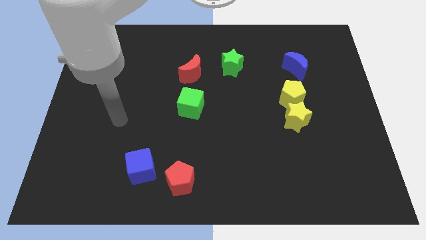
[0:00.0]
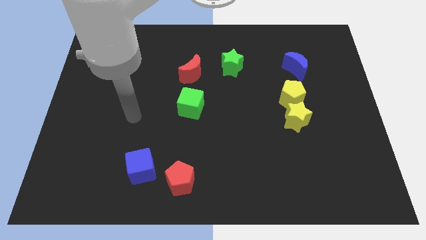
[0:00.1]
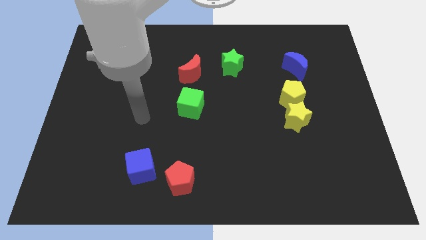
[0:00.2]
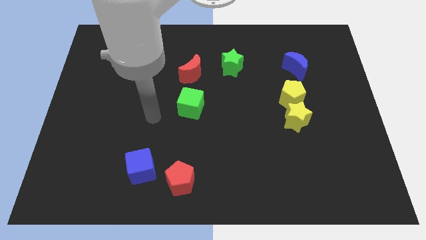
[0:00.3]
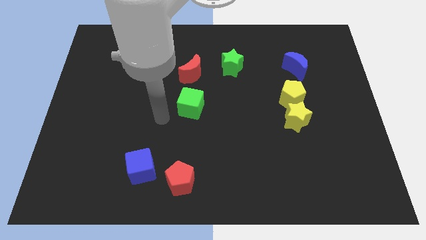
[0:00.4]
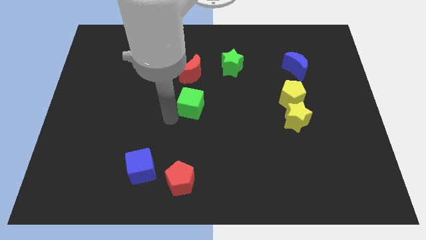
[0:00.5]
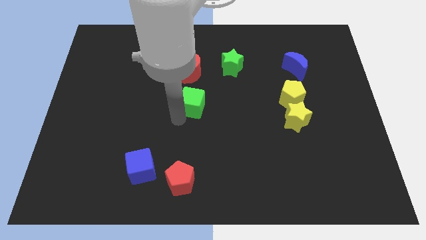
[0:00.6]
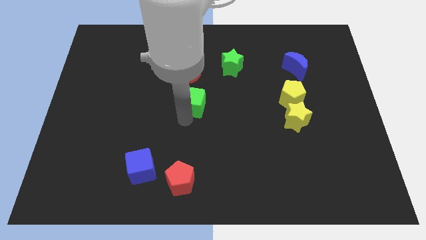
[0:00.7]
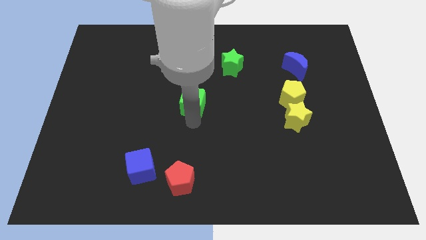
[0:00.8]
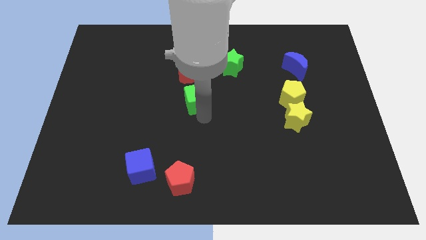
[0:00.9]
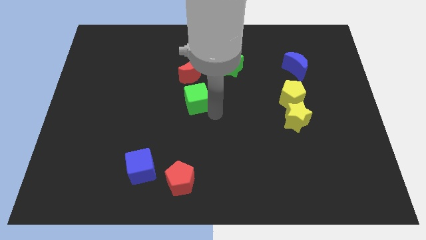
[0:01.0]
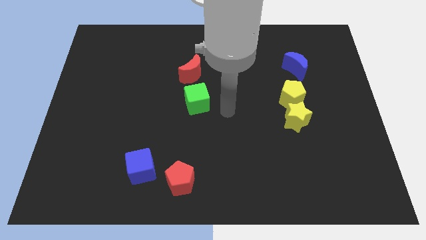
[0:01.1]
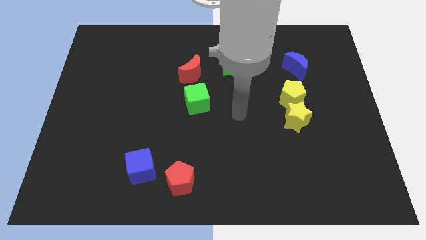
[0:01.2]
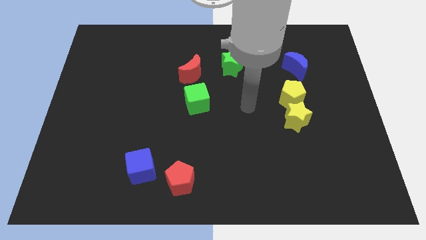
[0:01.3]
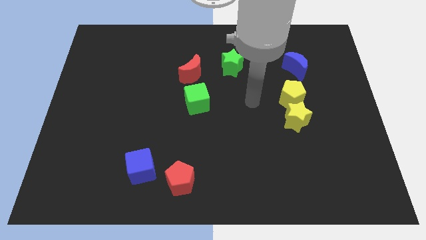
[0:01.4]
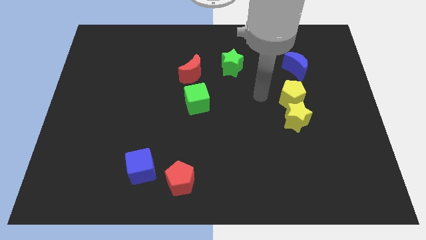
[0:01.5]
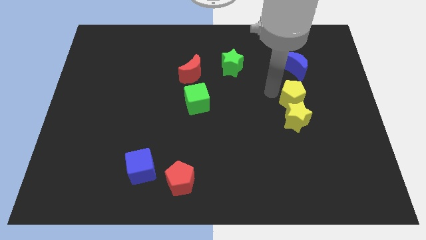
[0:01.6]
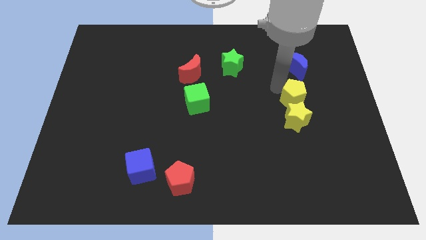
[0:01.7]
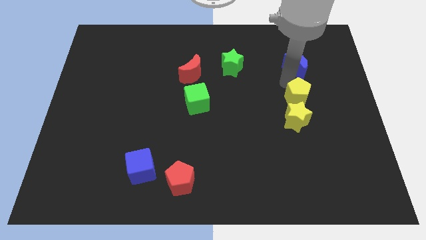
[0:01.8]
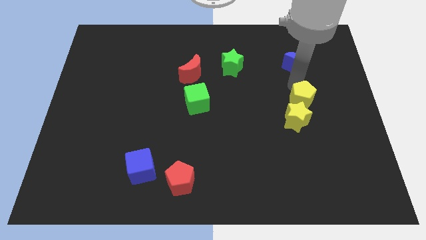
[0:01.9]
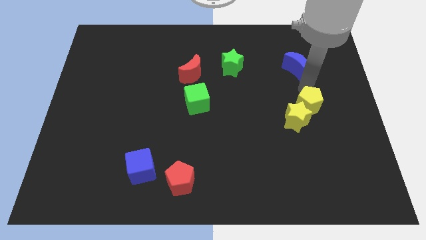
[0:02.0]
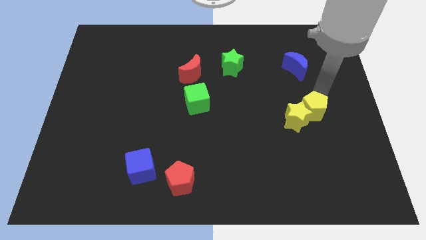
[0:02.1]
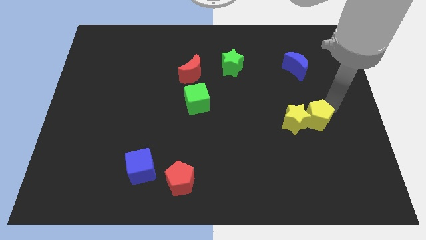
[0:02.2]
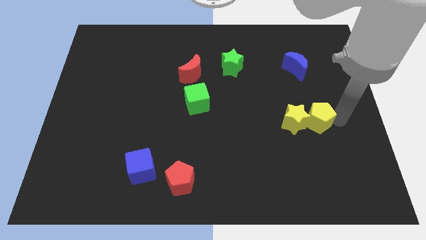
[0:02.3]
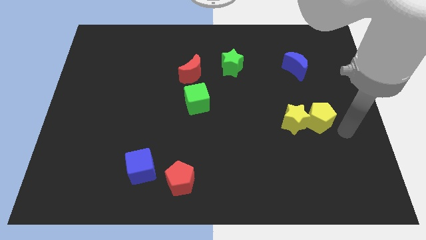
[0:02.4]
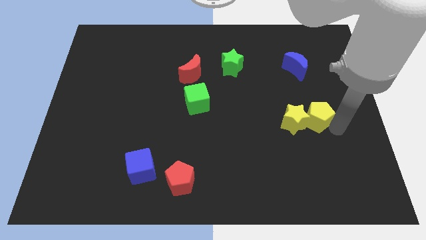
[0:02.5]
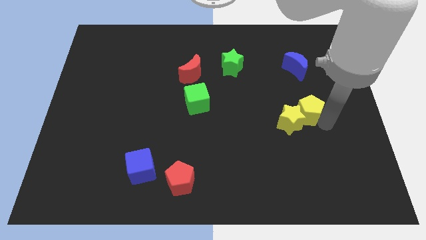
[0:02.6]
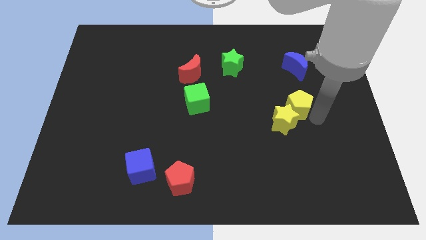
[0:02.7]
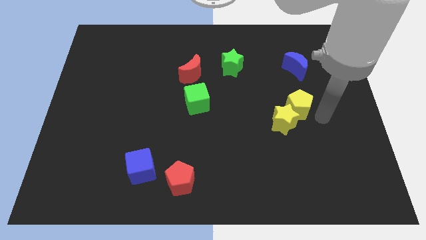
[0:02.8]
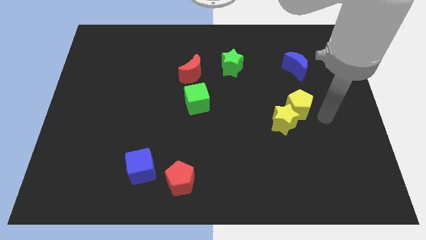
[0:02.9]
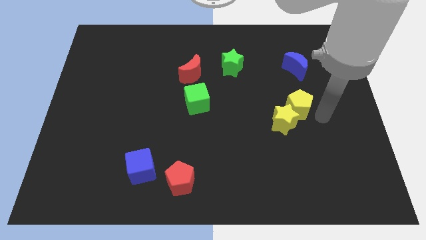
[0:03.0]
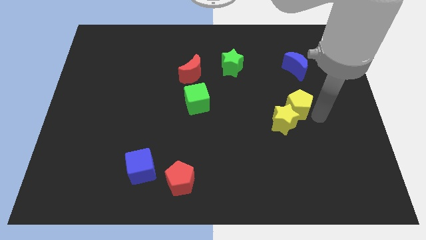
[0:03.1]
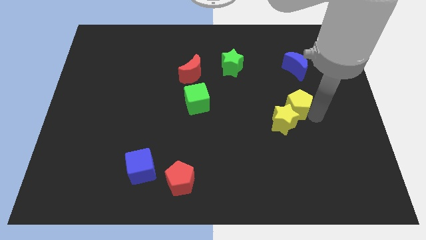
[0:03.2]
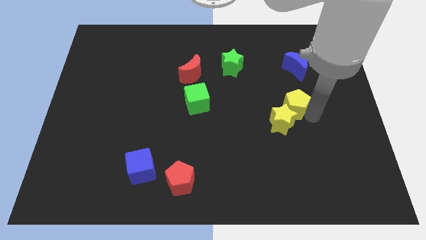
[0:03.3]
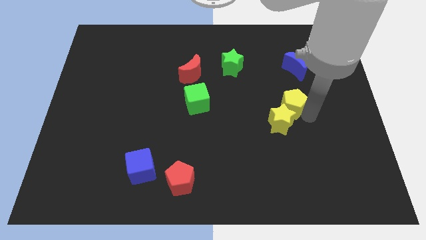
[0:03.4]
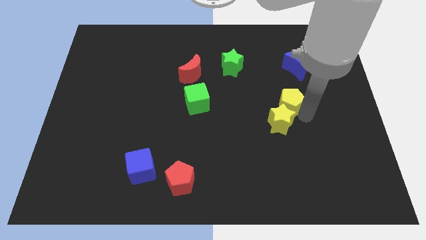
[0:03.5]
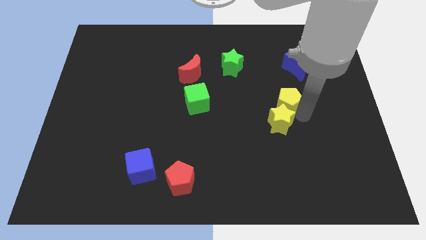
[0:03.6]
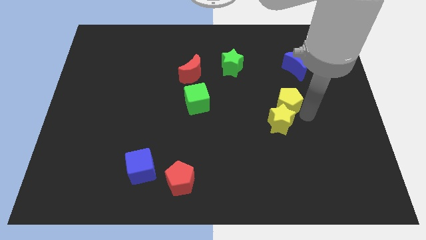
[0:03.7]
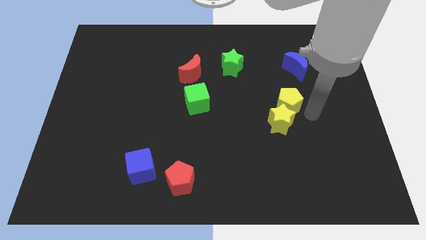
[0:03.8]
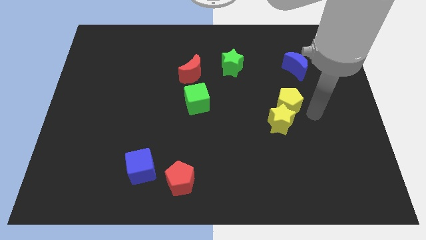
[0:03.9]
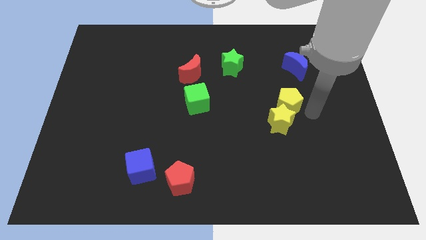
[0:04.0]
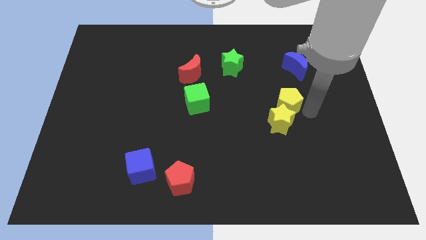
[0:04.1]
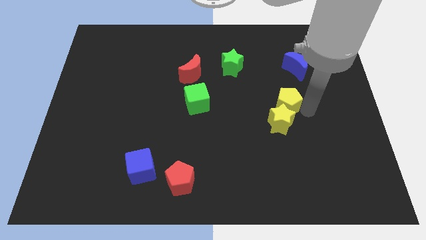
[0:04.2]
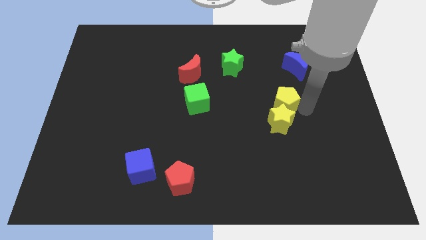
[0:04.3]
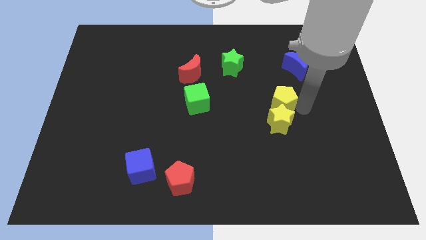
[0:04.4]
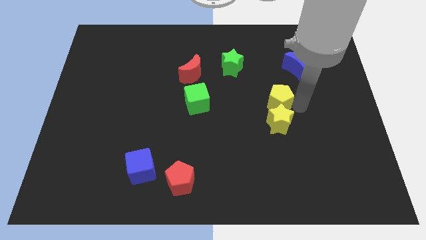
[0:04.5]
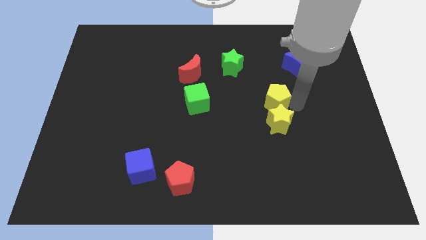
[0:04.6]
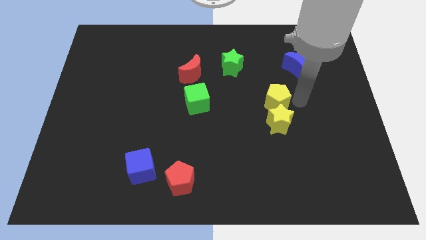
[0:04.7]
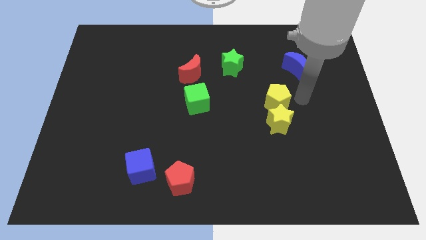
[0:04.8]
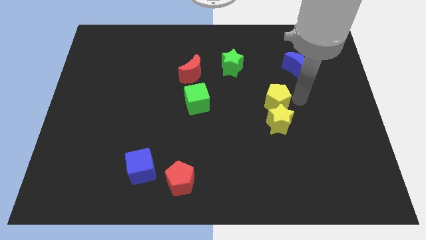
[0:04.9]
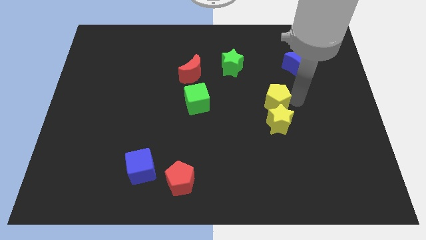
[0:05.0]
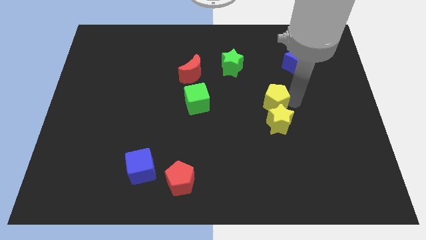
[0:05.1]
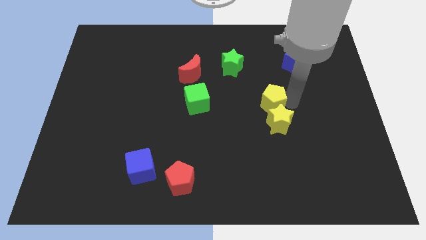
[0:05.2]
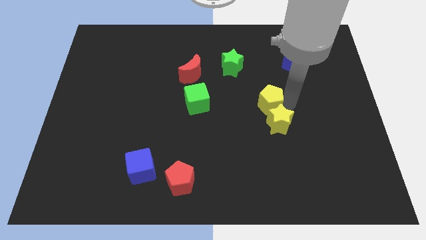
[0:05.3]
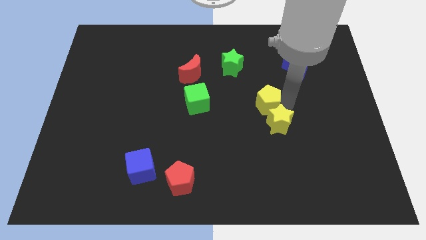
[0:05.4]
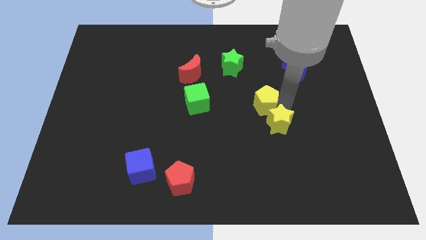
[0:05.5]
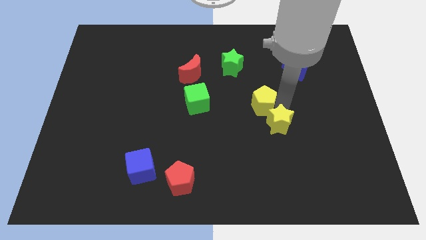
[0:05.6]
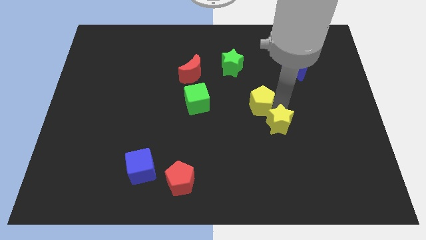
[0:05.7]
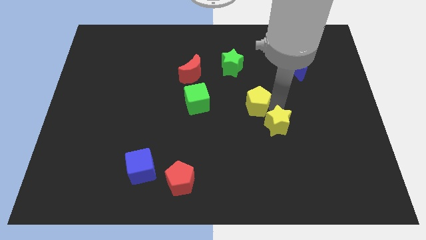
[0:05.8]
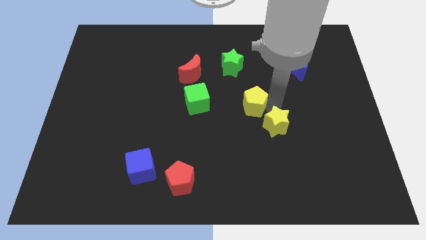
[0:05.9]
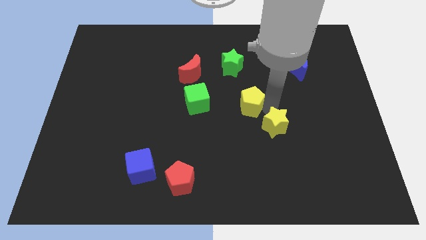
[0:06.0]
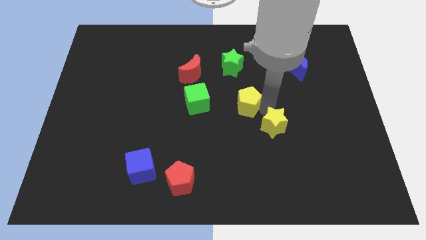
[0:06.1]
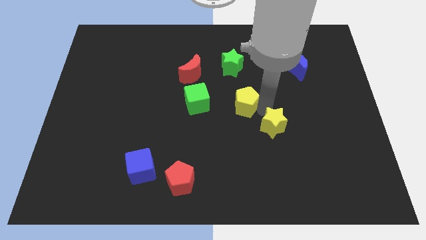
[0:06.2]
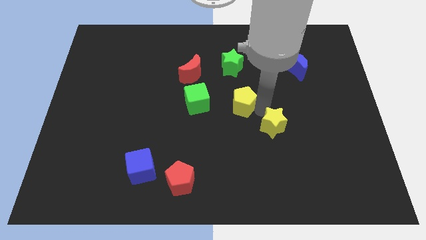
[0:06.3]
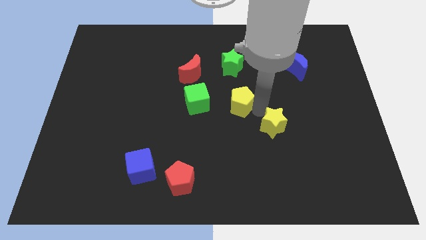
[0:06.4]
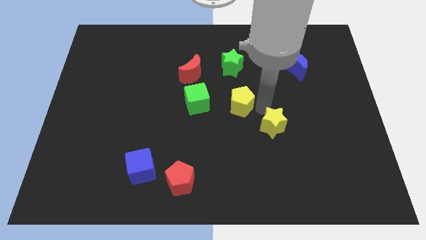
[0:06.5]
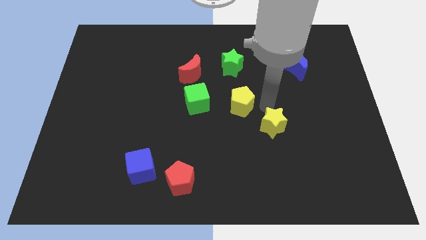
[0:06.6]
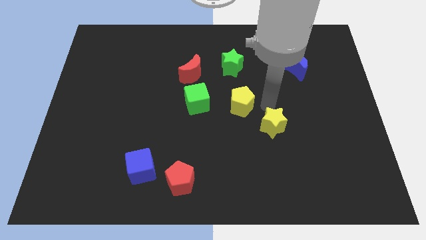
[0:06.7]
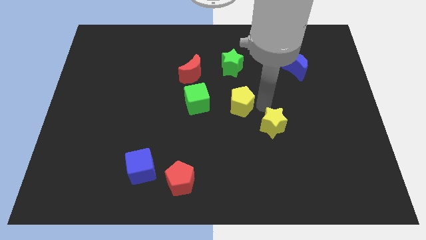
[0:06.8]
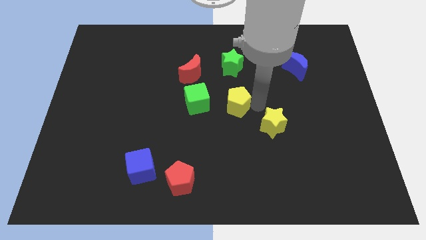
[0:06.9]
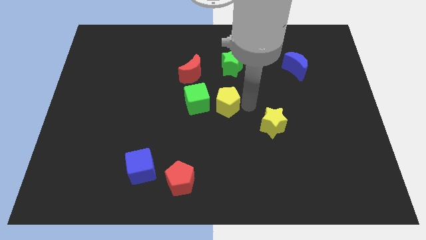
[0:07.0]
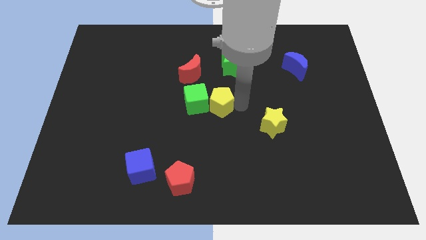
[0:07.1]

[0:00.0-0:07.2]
slide the yellow pentagon towards the green cube
